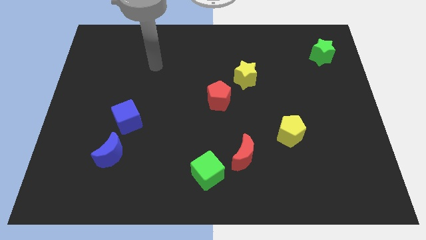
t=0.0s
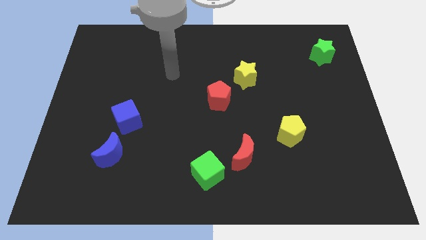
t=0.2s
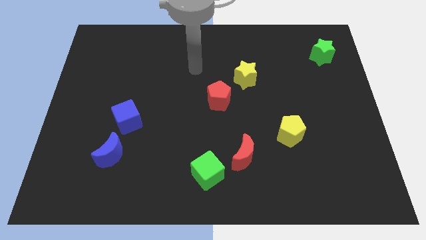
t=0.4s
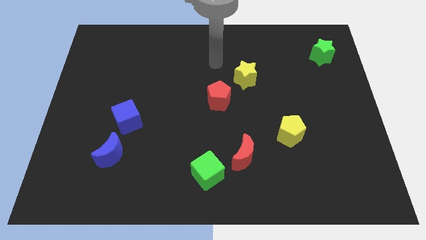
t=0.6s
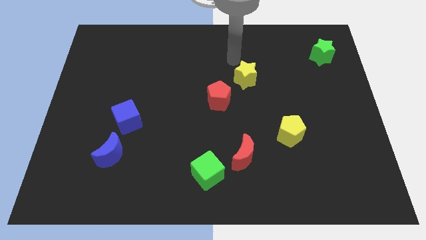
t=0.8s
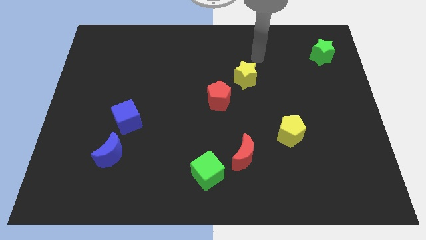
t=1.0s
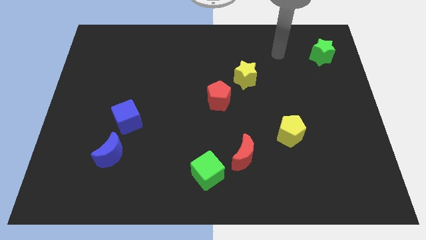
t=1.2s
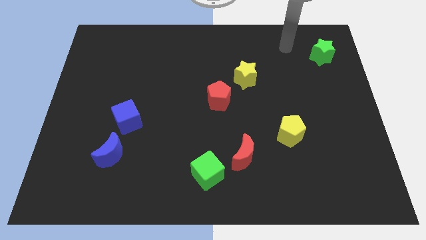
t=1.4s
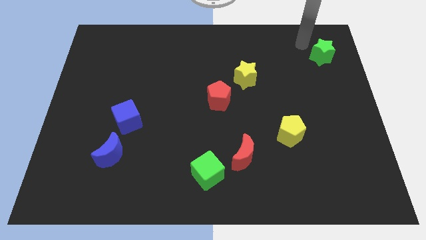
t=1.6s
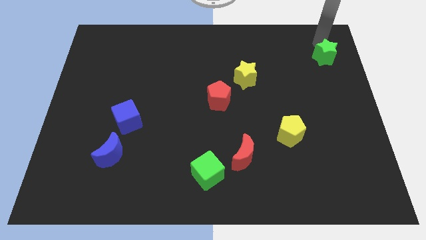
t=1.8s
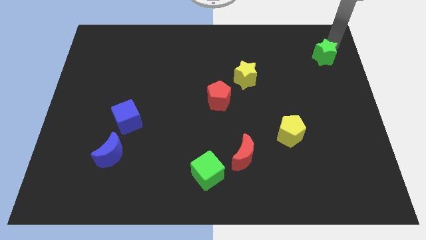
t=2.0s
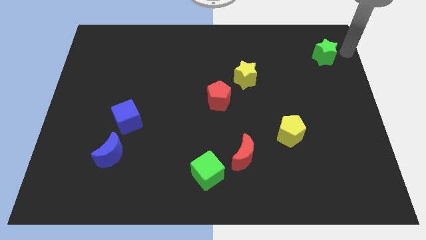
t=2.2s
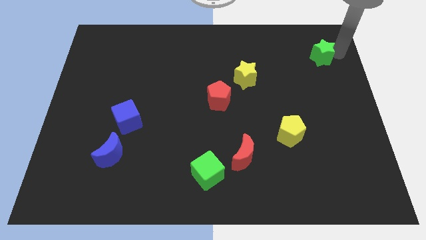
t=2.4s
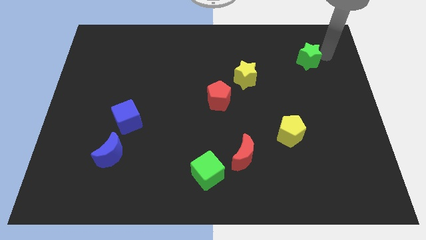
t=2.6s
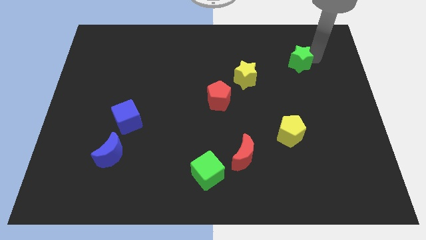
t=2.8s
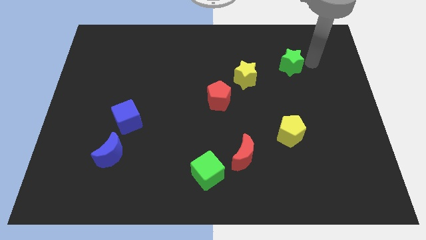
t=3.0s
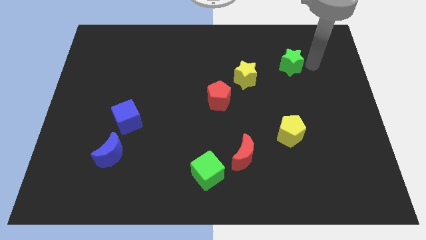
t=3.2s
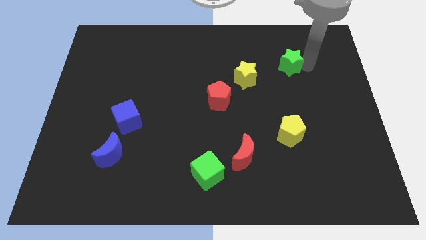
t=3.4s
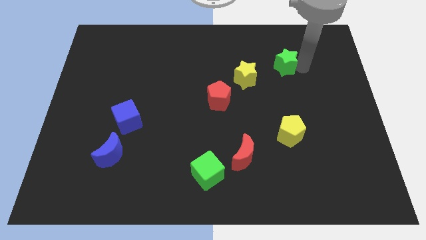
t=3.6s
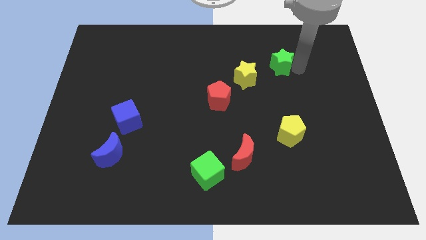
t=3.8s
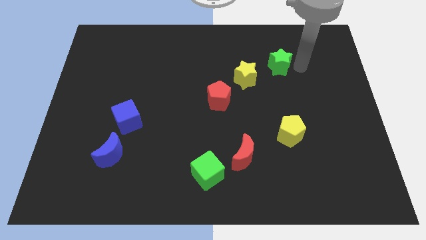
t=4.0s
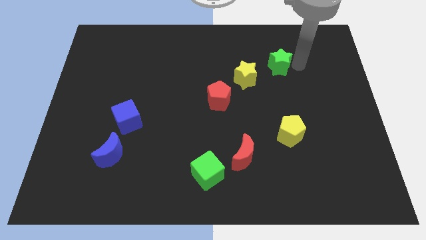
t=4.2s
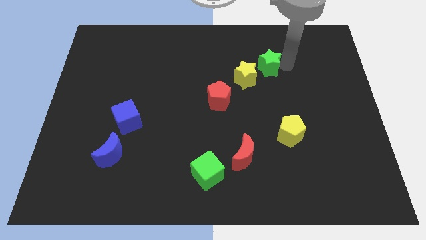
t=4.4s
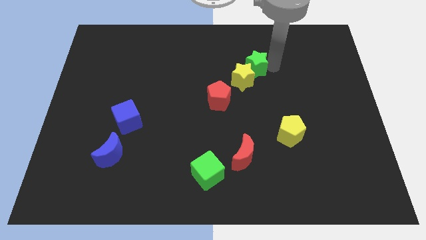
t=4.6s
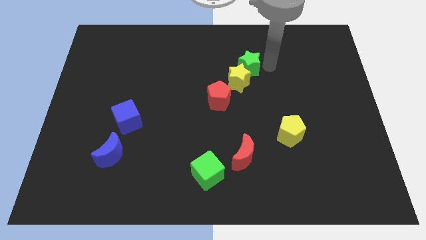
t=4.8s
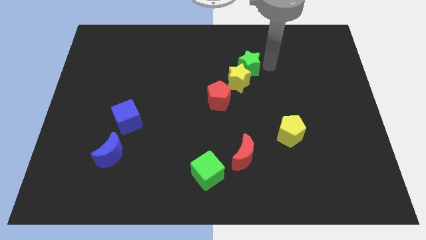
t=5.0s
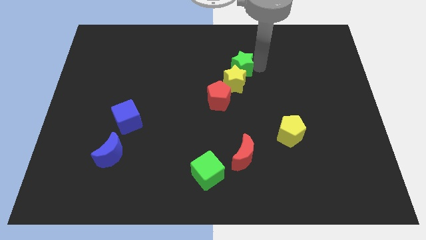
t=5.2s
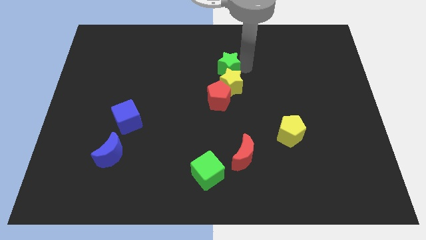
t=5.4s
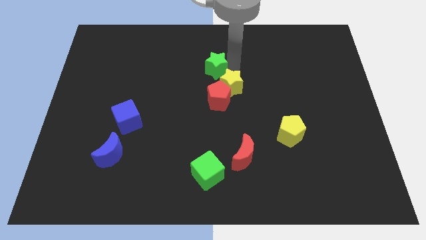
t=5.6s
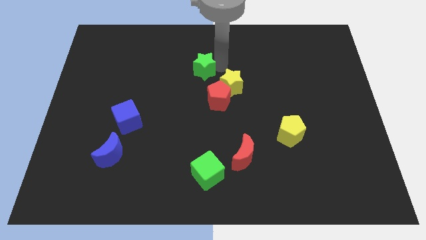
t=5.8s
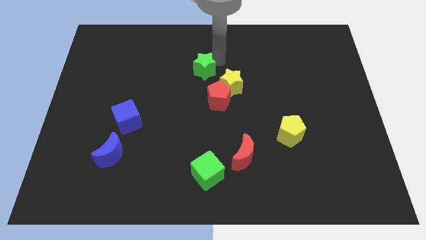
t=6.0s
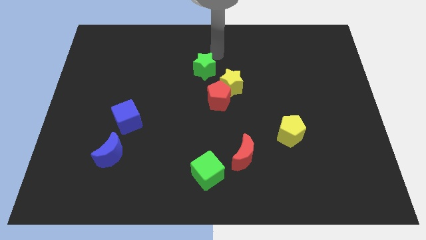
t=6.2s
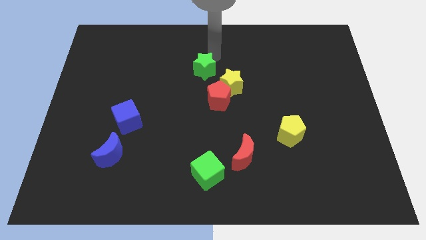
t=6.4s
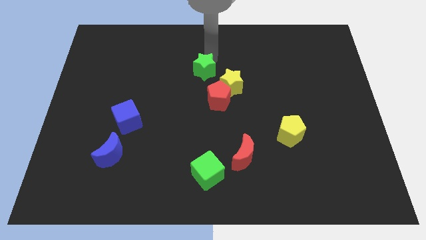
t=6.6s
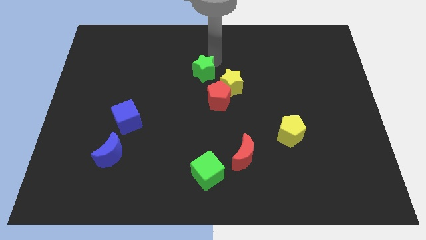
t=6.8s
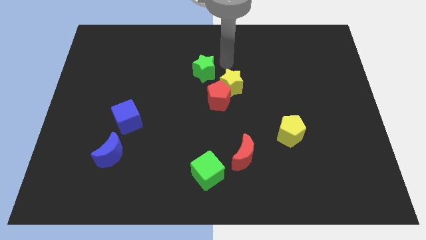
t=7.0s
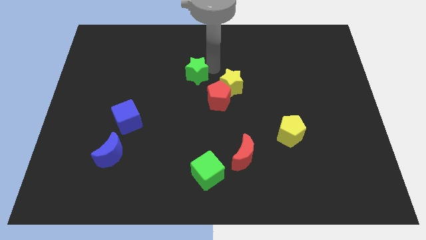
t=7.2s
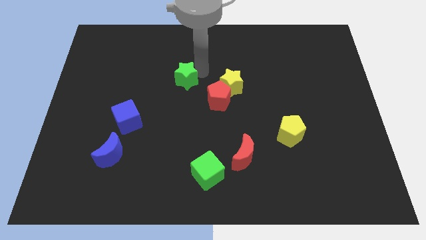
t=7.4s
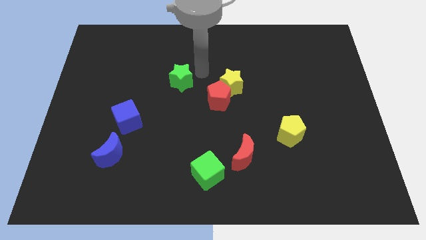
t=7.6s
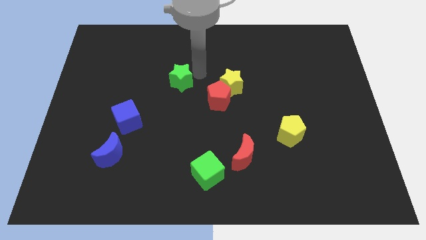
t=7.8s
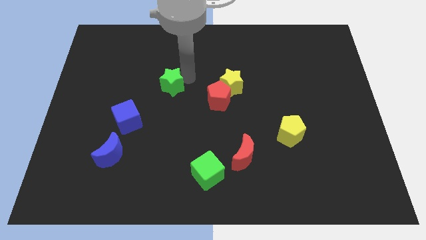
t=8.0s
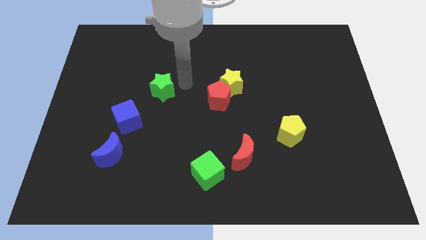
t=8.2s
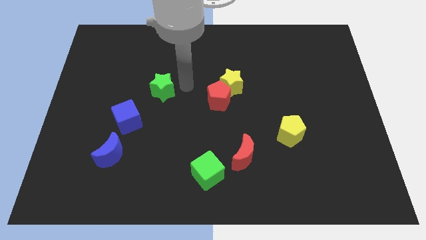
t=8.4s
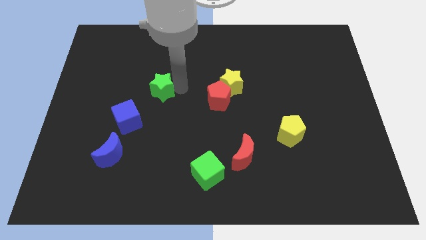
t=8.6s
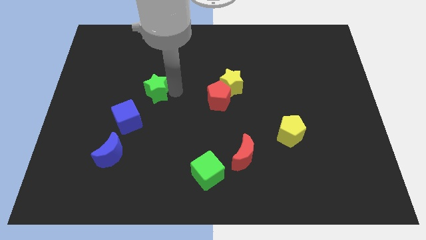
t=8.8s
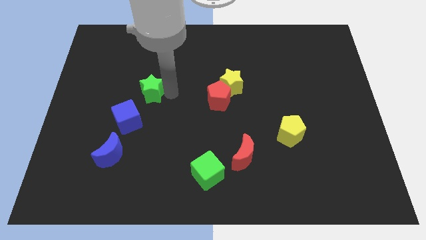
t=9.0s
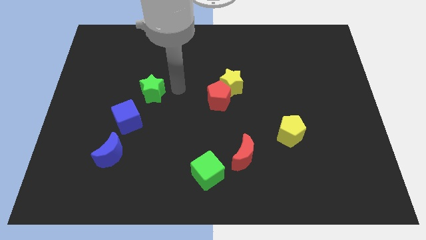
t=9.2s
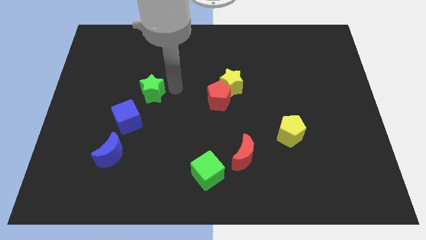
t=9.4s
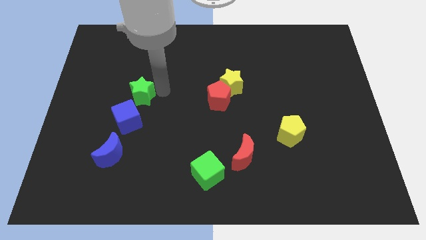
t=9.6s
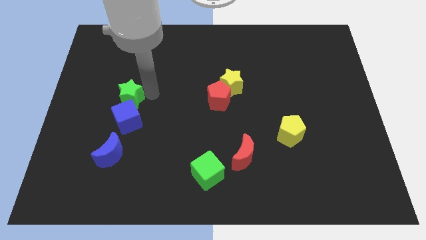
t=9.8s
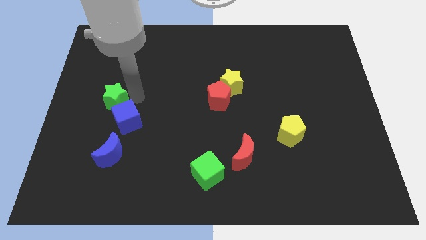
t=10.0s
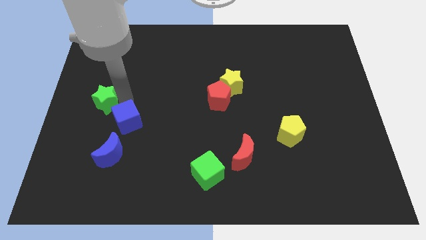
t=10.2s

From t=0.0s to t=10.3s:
push the green star to the left side

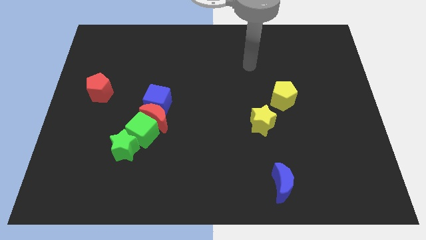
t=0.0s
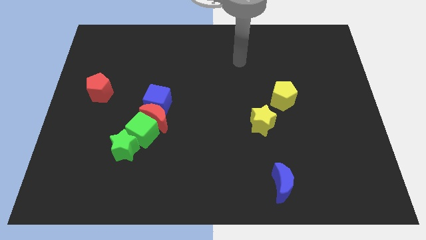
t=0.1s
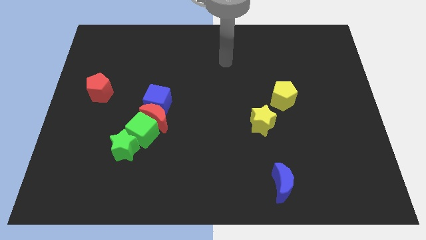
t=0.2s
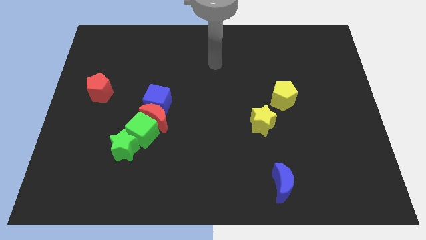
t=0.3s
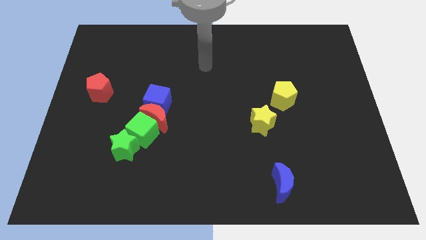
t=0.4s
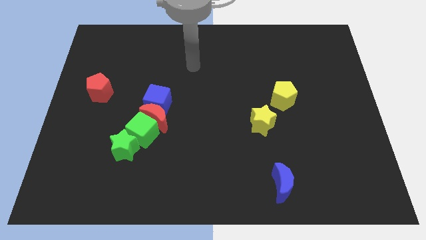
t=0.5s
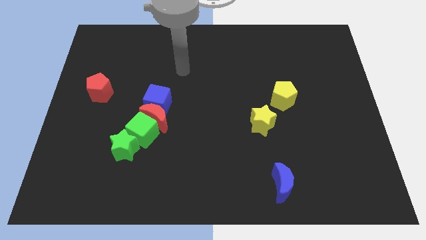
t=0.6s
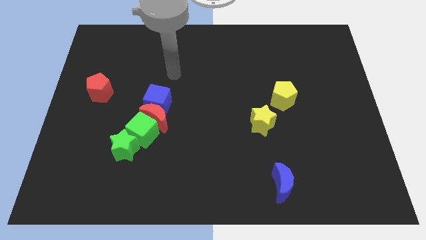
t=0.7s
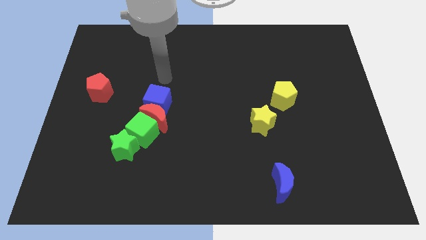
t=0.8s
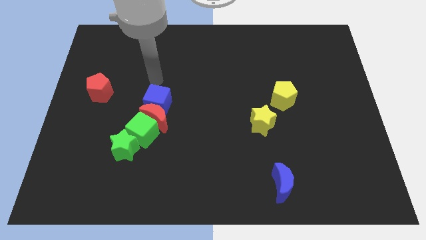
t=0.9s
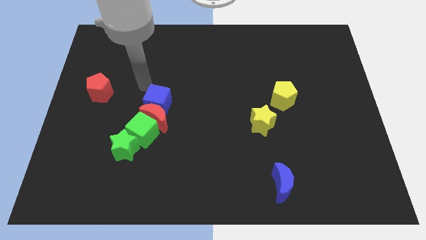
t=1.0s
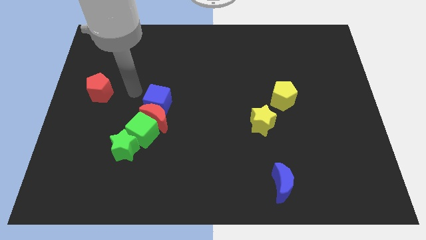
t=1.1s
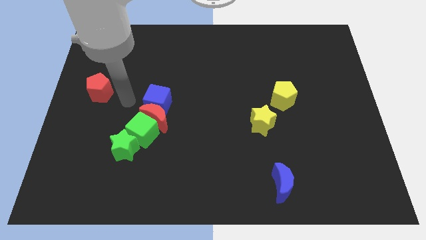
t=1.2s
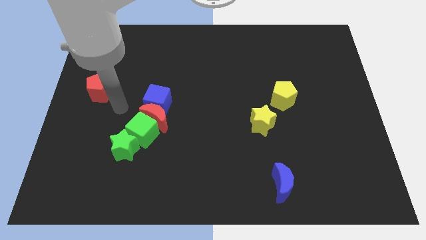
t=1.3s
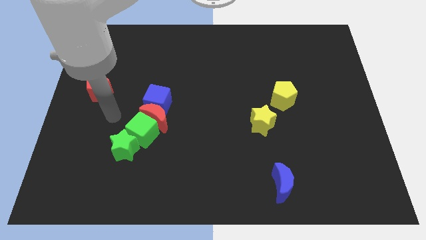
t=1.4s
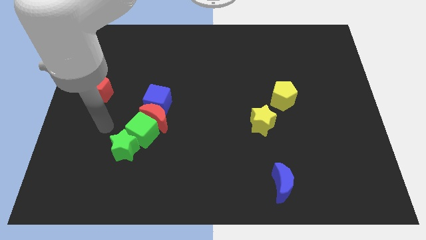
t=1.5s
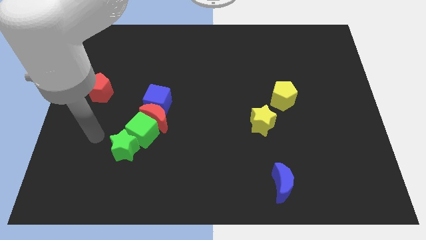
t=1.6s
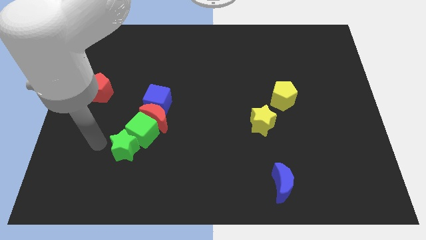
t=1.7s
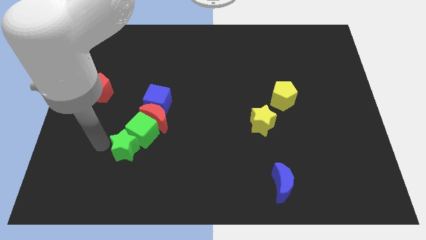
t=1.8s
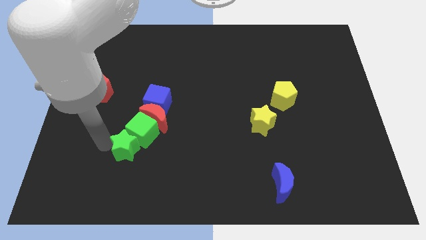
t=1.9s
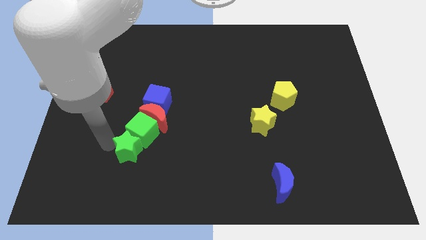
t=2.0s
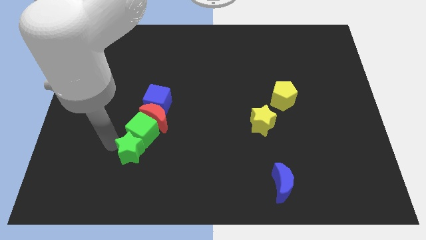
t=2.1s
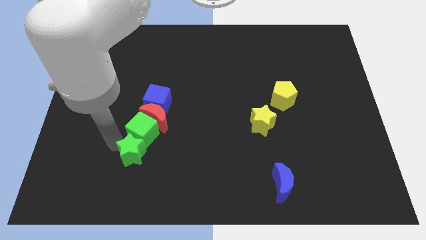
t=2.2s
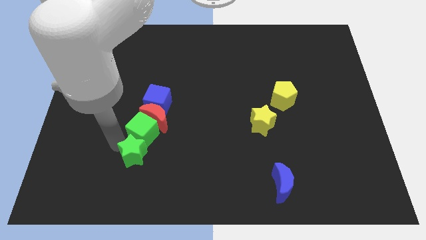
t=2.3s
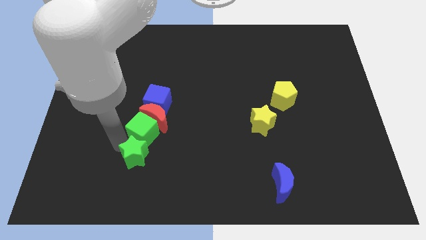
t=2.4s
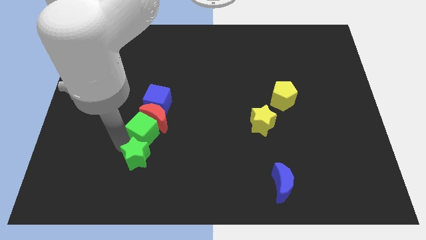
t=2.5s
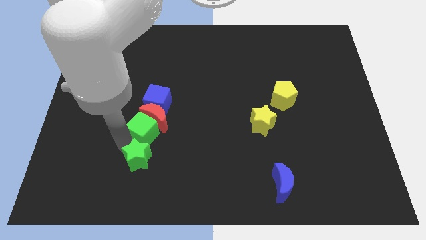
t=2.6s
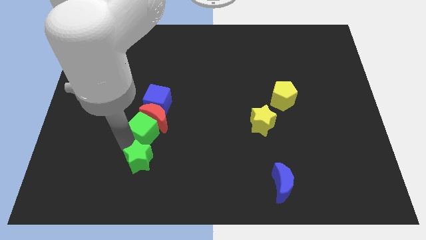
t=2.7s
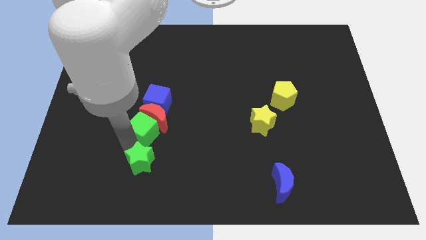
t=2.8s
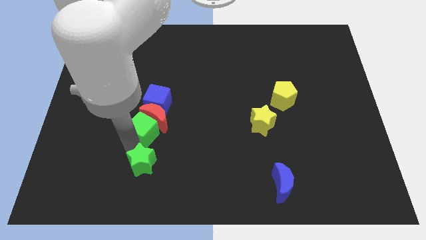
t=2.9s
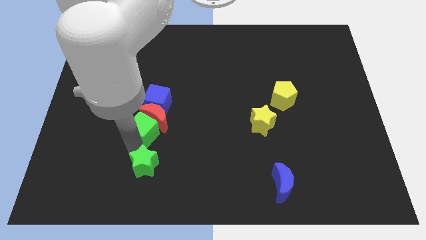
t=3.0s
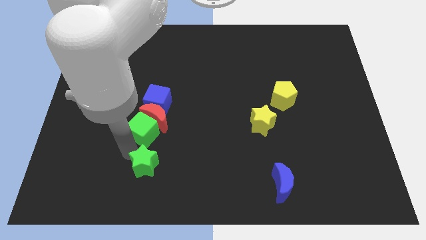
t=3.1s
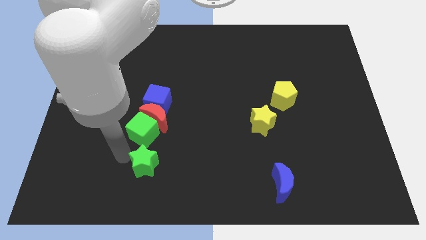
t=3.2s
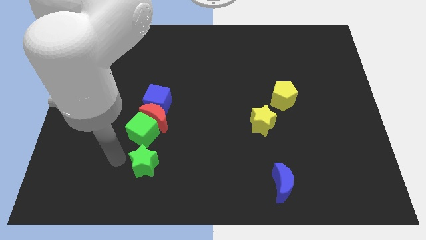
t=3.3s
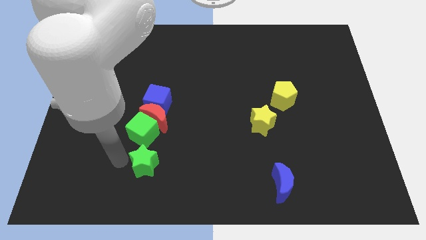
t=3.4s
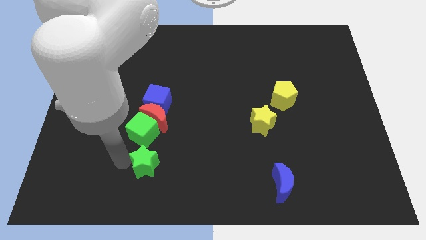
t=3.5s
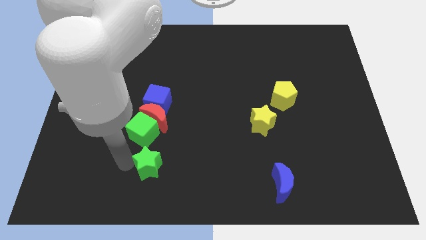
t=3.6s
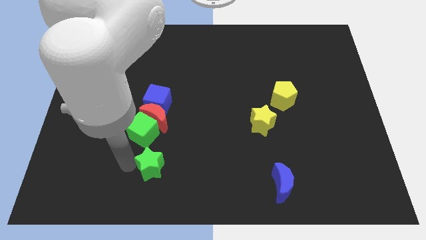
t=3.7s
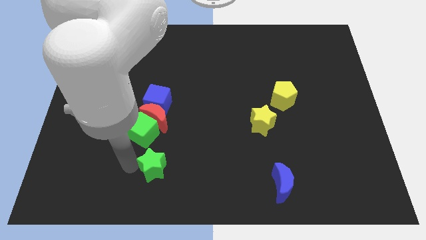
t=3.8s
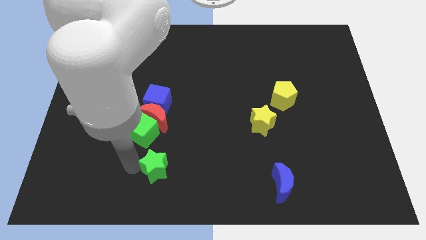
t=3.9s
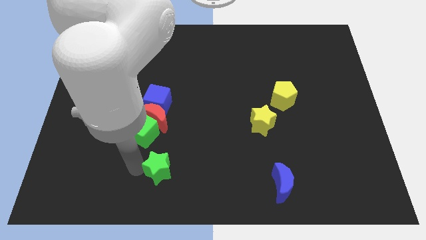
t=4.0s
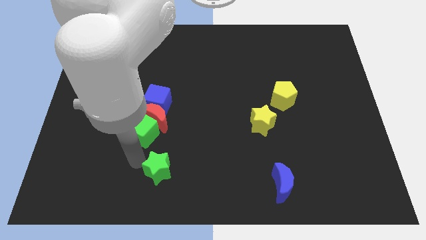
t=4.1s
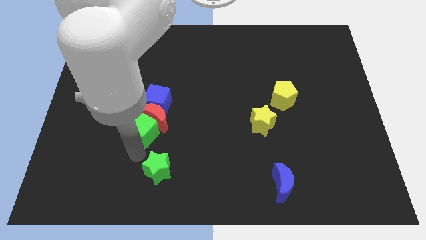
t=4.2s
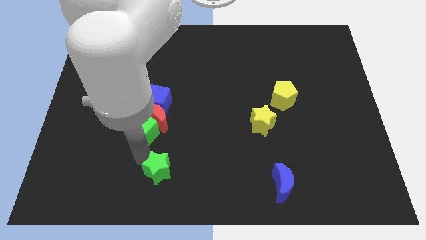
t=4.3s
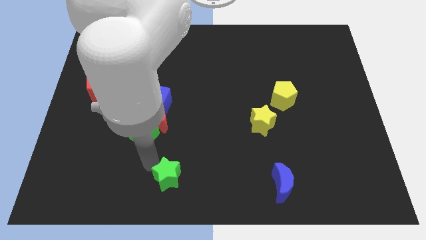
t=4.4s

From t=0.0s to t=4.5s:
move the green star to the bottom
